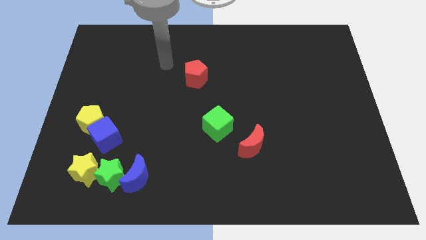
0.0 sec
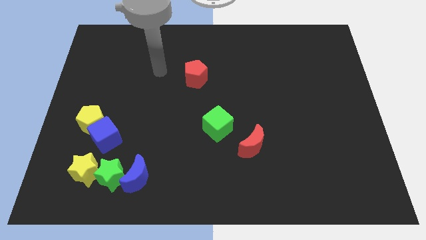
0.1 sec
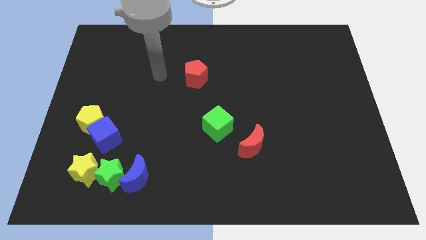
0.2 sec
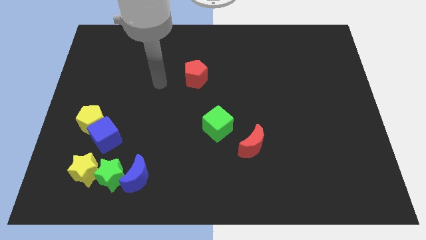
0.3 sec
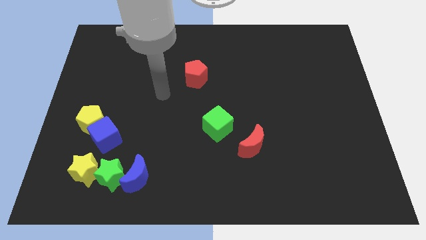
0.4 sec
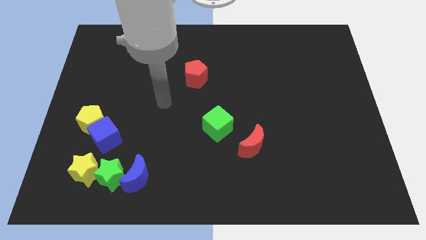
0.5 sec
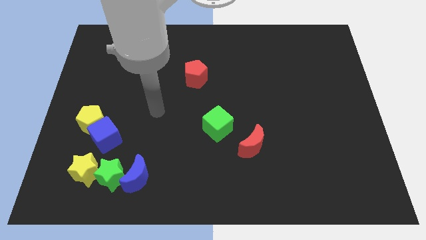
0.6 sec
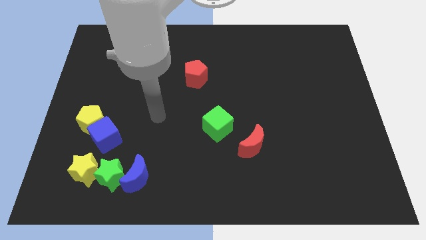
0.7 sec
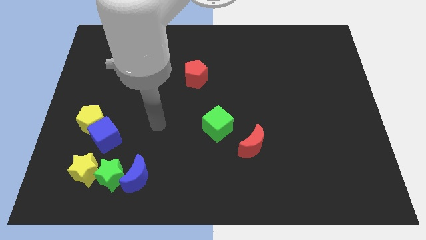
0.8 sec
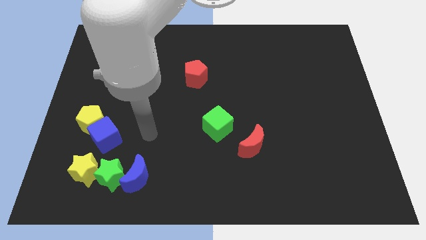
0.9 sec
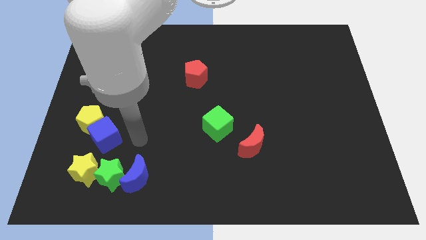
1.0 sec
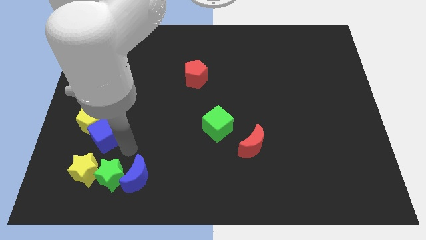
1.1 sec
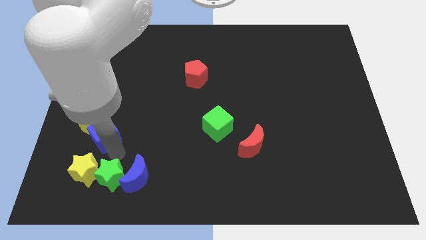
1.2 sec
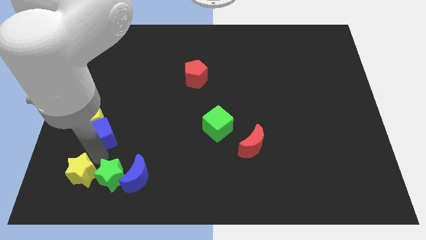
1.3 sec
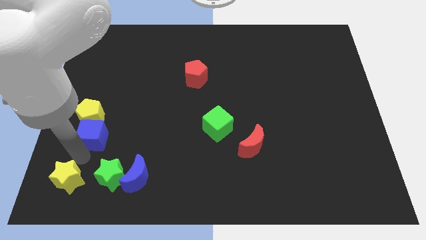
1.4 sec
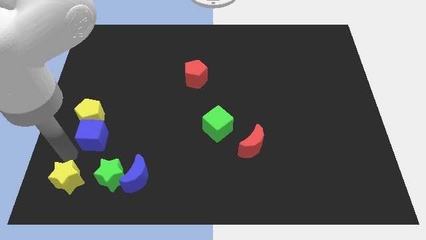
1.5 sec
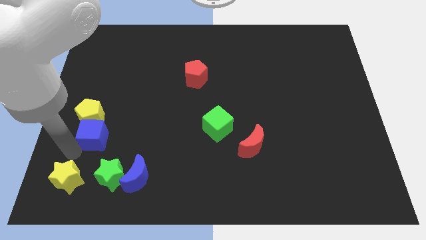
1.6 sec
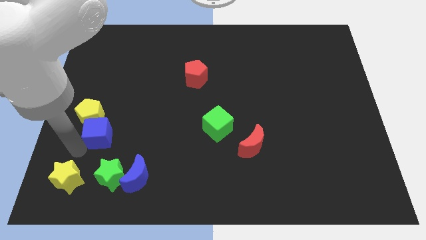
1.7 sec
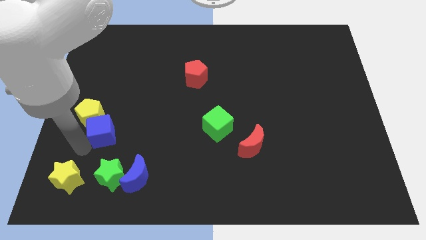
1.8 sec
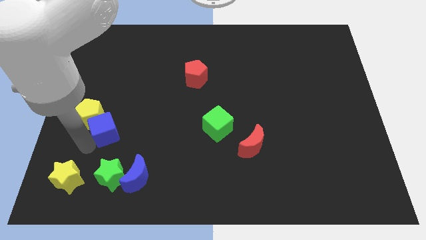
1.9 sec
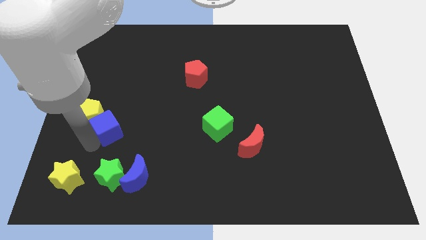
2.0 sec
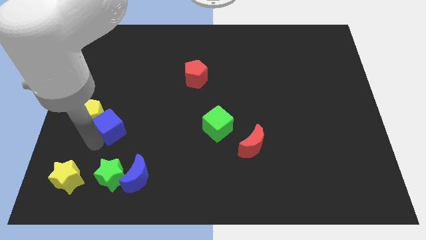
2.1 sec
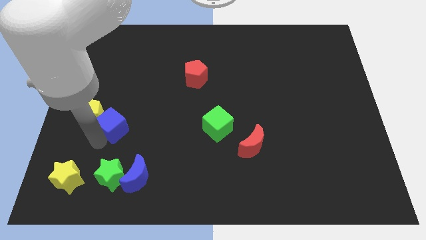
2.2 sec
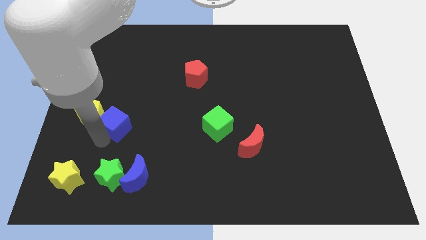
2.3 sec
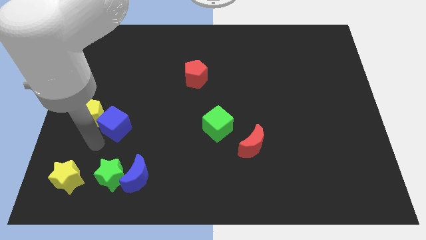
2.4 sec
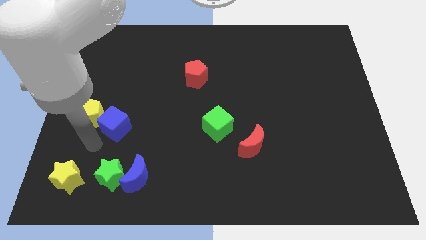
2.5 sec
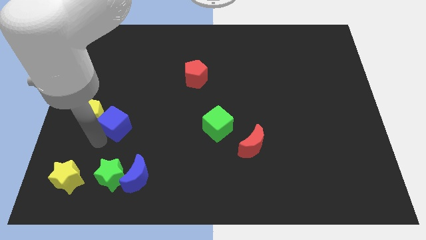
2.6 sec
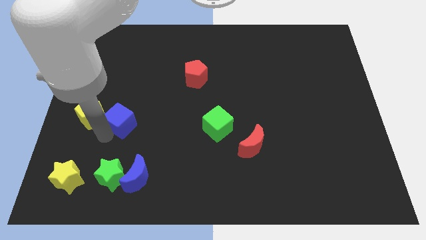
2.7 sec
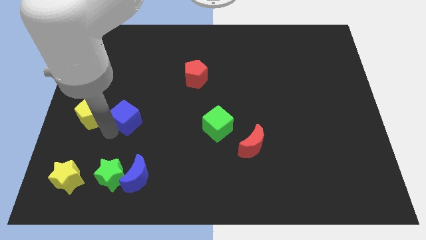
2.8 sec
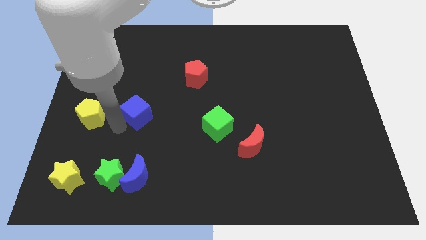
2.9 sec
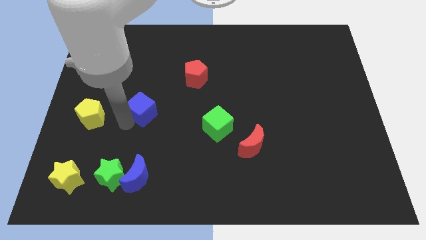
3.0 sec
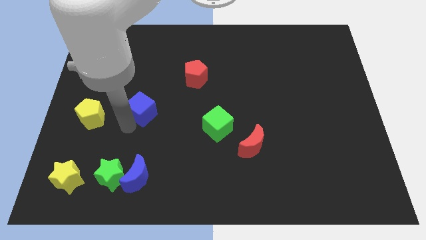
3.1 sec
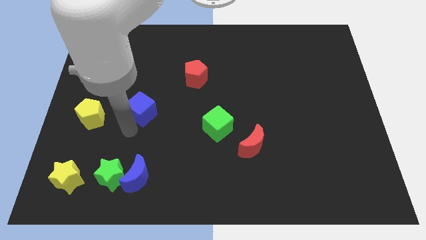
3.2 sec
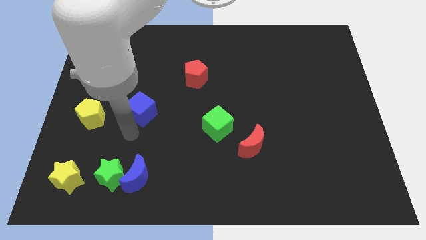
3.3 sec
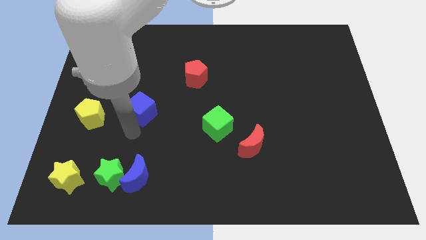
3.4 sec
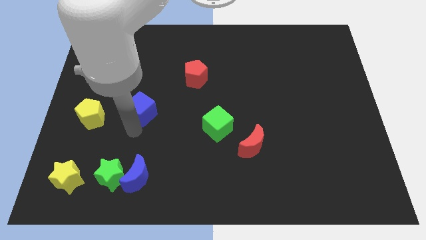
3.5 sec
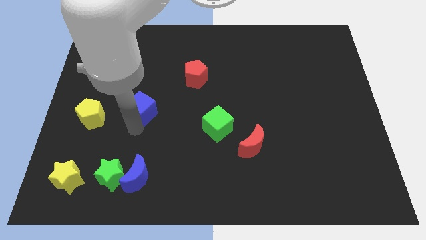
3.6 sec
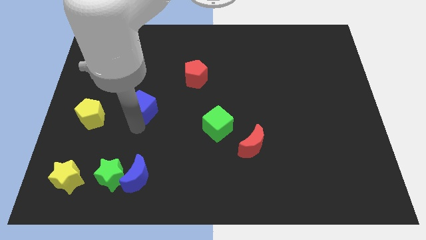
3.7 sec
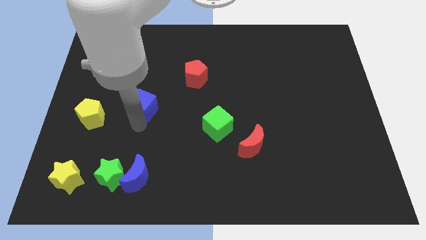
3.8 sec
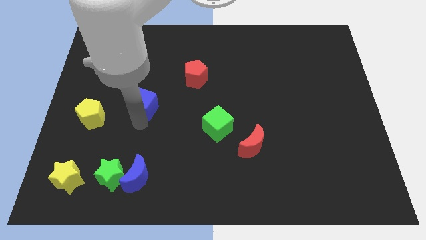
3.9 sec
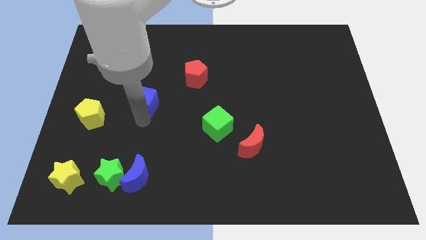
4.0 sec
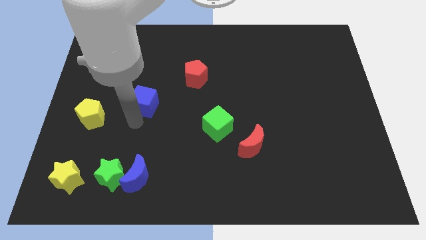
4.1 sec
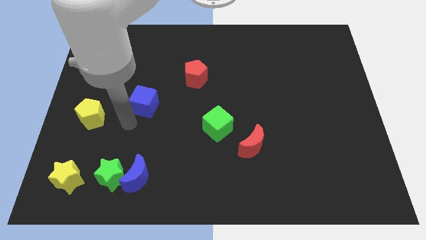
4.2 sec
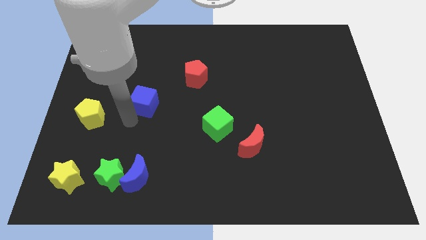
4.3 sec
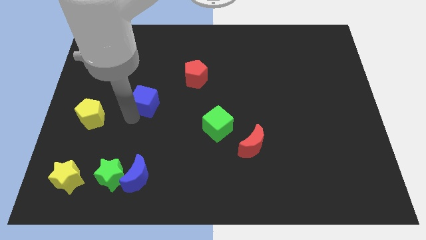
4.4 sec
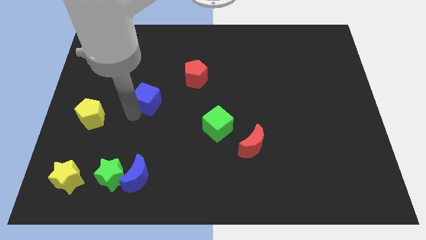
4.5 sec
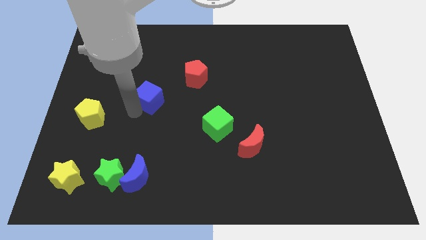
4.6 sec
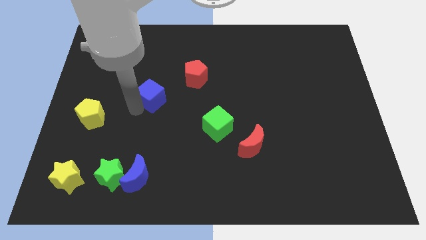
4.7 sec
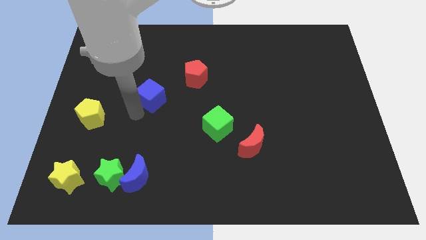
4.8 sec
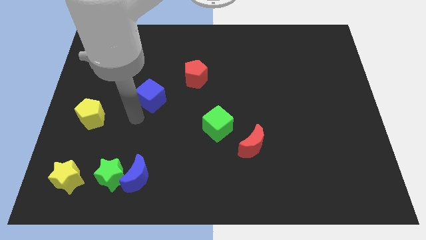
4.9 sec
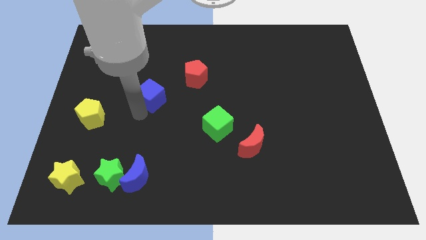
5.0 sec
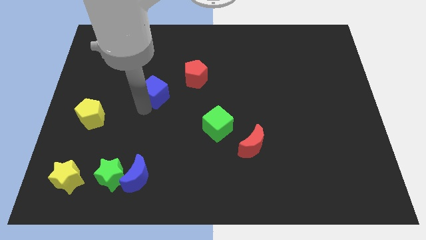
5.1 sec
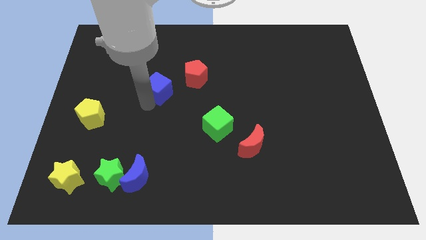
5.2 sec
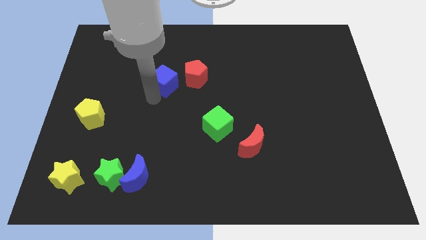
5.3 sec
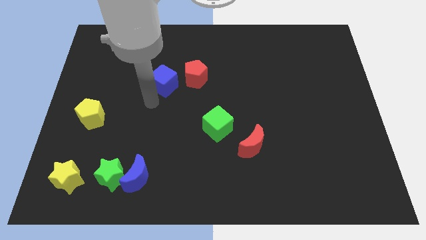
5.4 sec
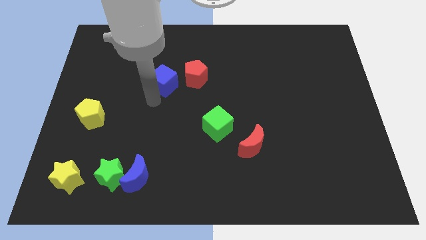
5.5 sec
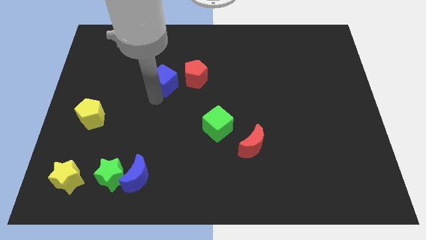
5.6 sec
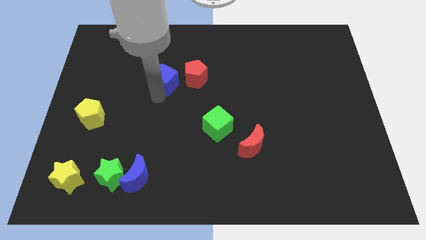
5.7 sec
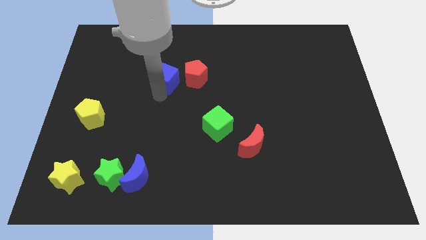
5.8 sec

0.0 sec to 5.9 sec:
push the blue cube upwards and then right

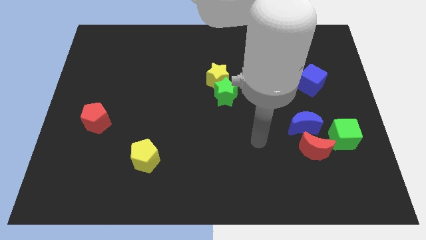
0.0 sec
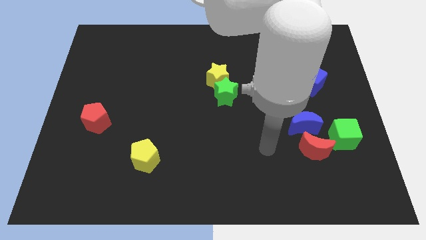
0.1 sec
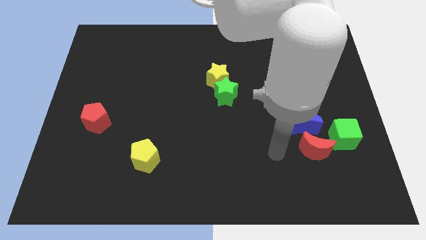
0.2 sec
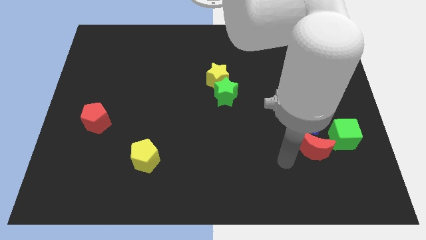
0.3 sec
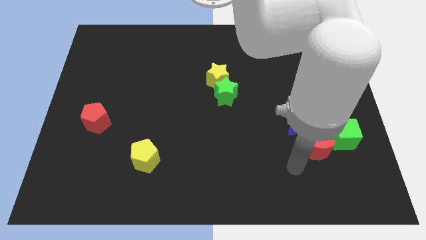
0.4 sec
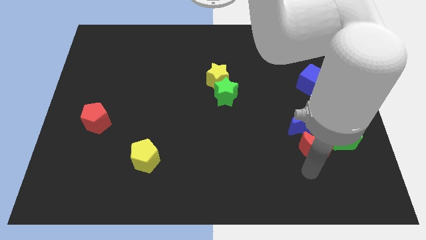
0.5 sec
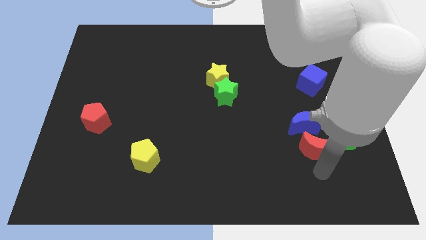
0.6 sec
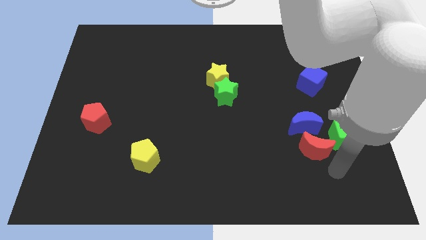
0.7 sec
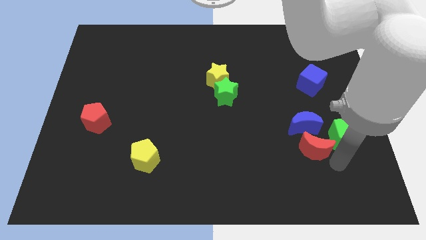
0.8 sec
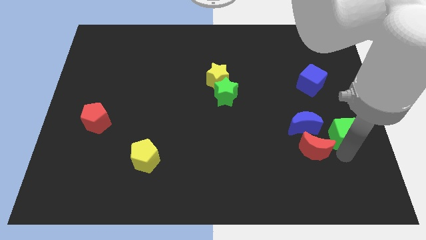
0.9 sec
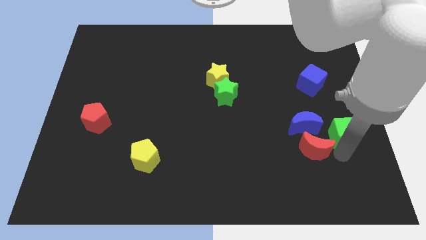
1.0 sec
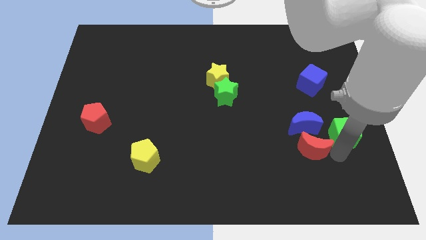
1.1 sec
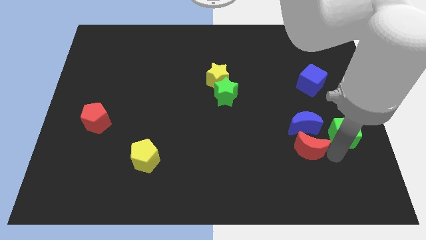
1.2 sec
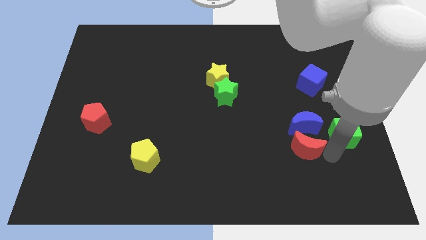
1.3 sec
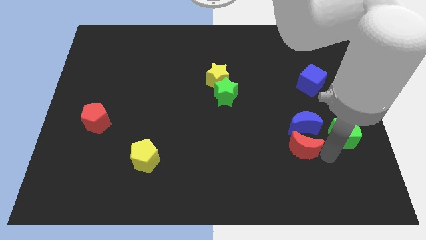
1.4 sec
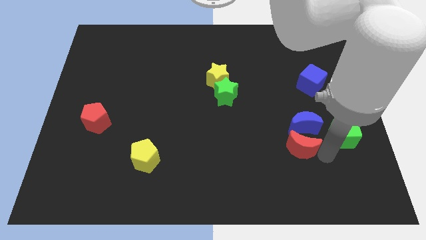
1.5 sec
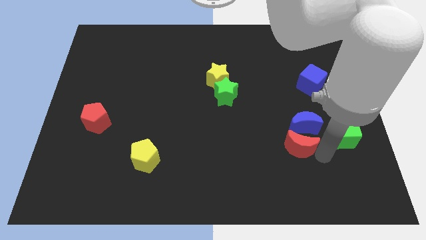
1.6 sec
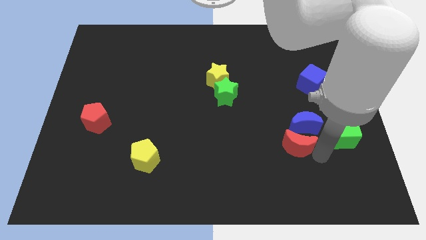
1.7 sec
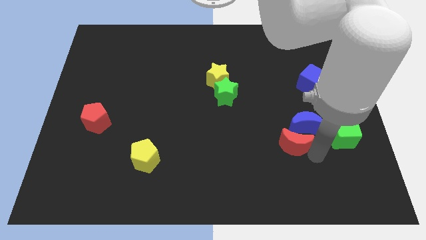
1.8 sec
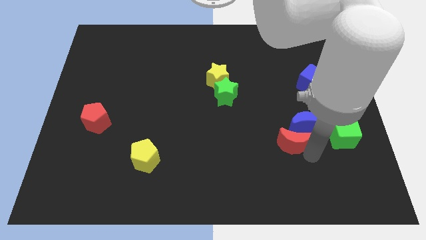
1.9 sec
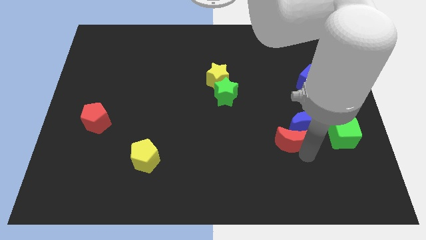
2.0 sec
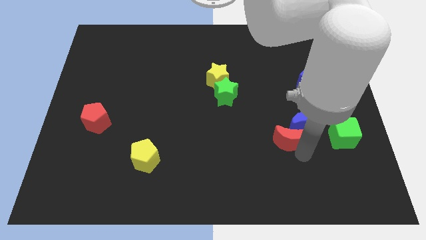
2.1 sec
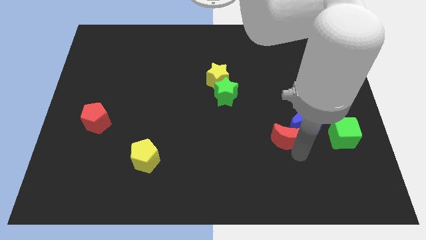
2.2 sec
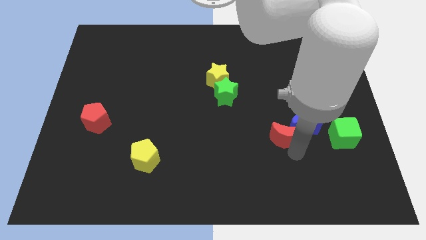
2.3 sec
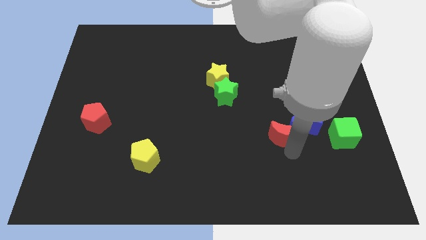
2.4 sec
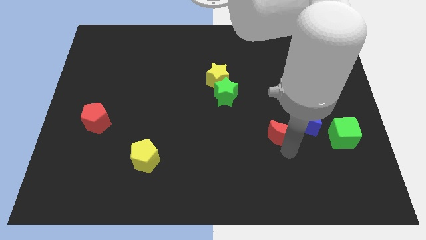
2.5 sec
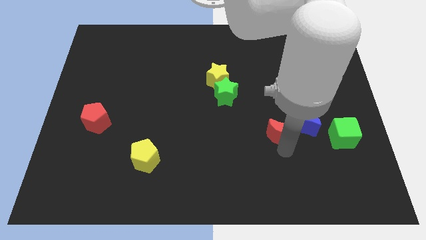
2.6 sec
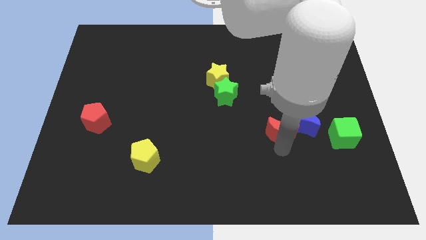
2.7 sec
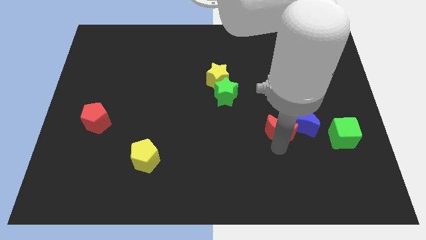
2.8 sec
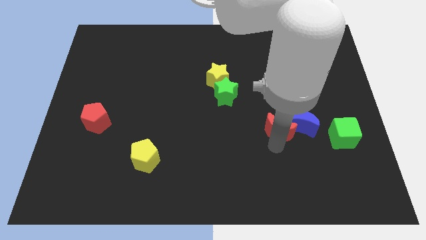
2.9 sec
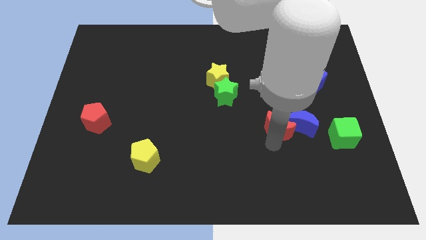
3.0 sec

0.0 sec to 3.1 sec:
slide the red moon to the left a little
